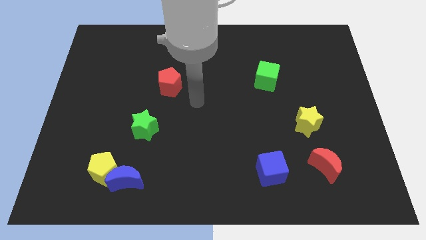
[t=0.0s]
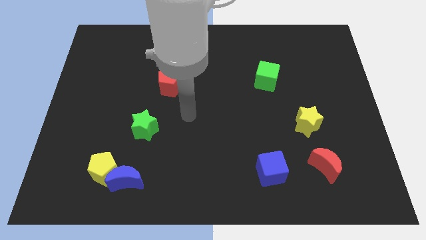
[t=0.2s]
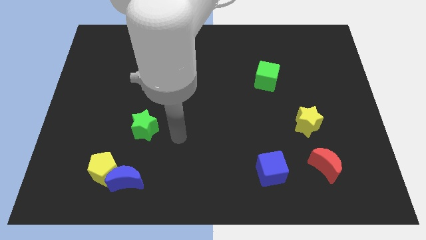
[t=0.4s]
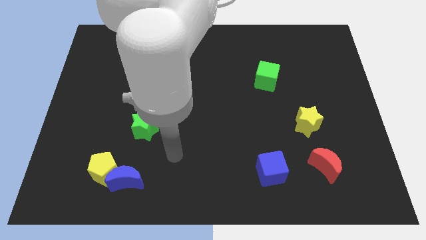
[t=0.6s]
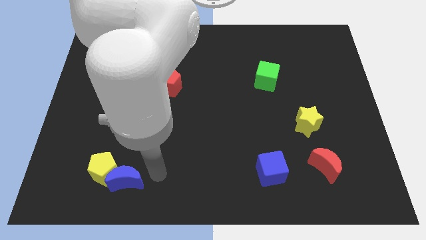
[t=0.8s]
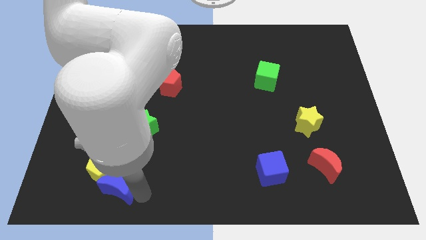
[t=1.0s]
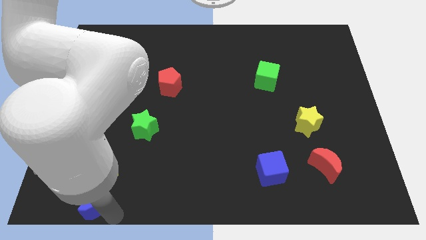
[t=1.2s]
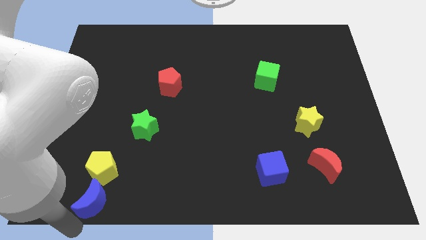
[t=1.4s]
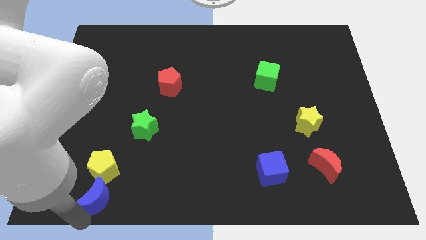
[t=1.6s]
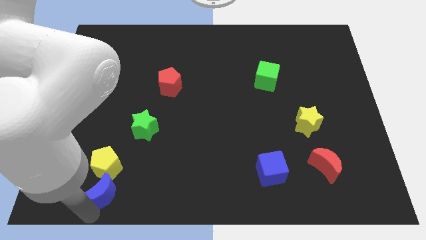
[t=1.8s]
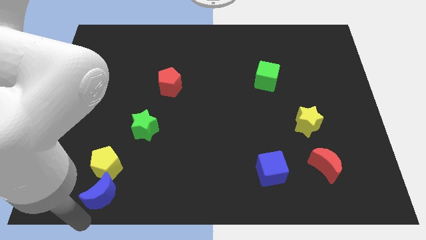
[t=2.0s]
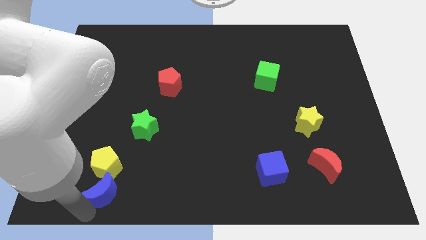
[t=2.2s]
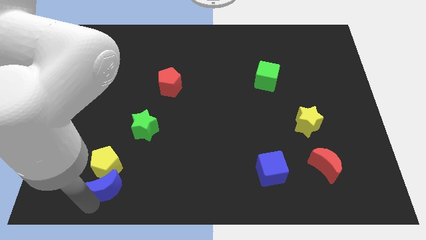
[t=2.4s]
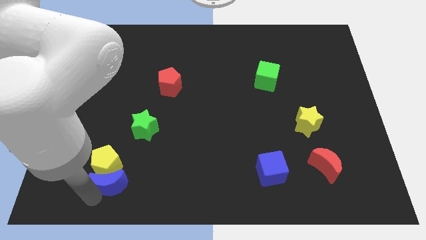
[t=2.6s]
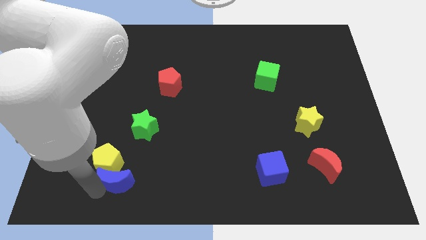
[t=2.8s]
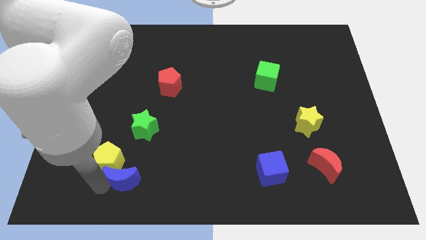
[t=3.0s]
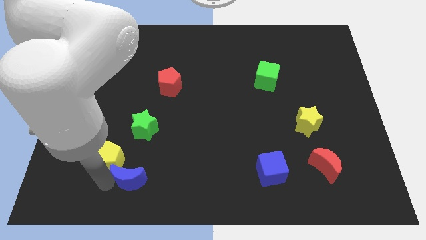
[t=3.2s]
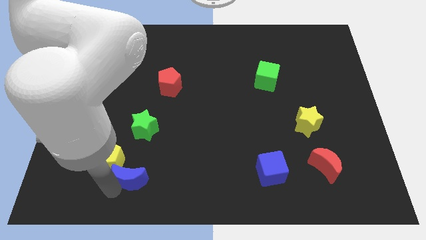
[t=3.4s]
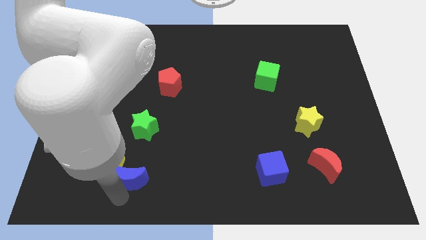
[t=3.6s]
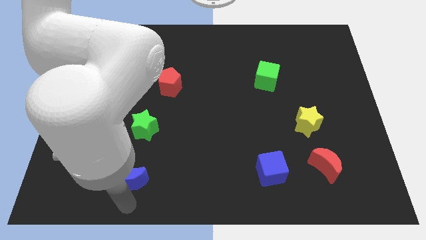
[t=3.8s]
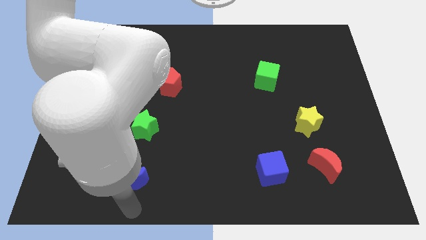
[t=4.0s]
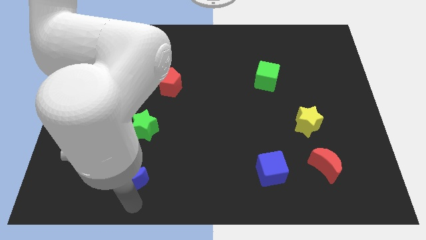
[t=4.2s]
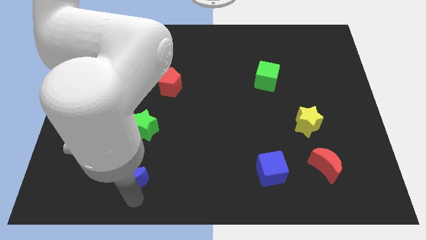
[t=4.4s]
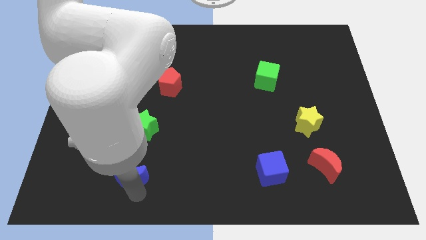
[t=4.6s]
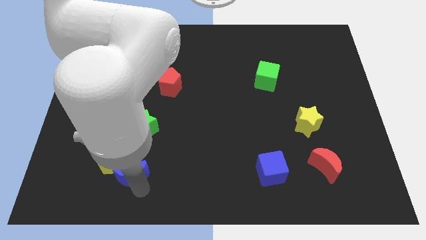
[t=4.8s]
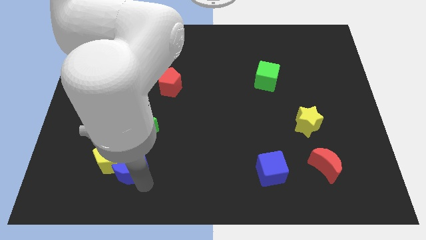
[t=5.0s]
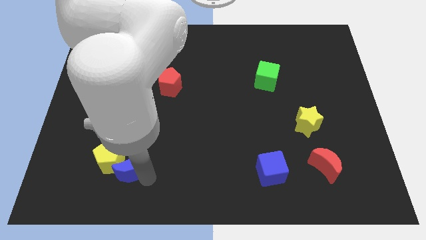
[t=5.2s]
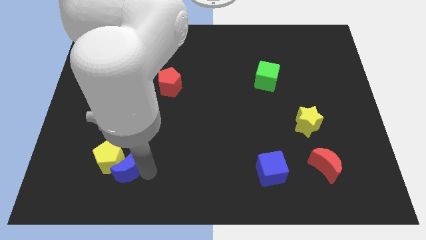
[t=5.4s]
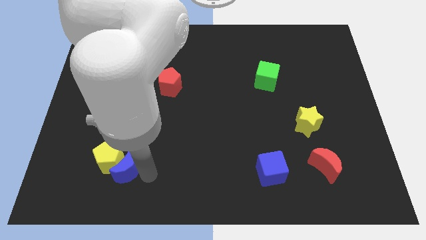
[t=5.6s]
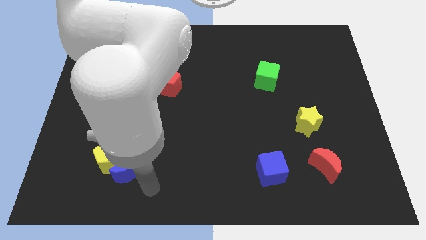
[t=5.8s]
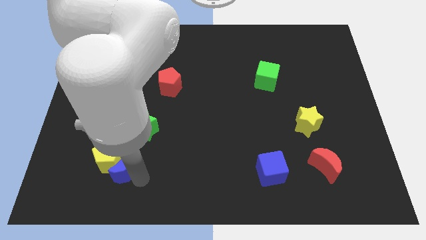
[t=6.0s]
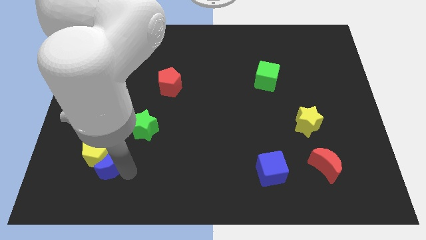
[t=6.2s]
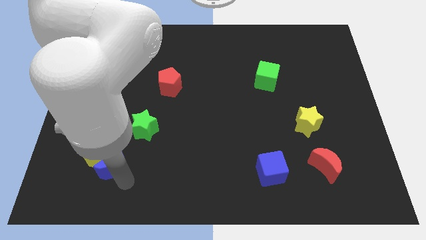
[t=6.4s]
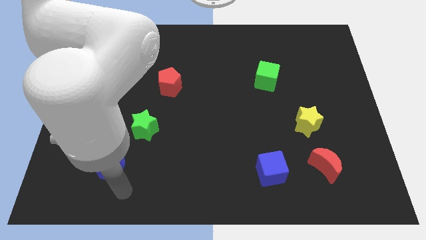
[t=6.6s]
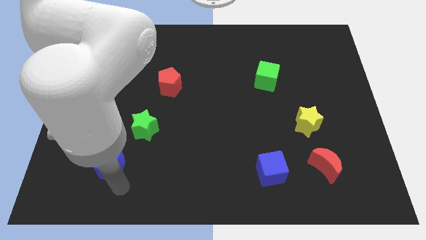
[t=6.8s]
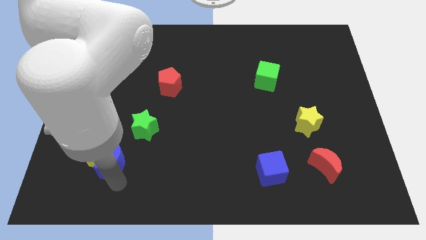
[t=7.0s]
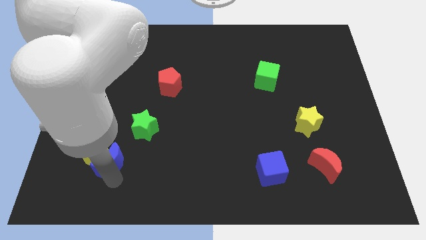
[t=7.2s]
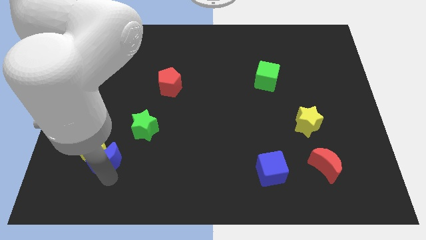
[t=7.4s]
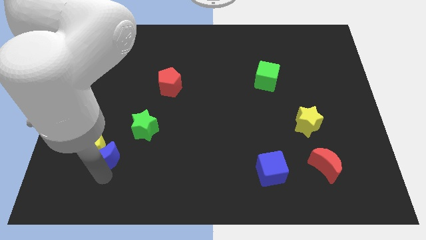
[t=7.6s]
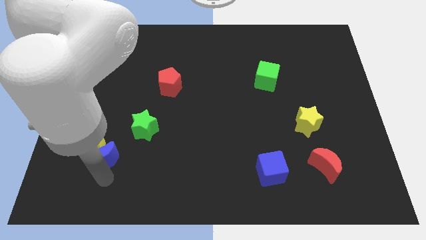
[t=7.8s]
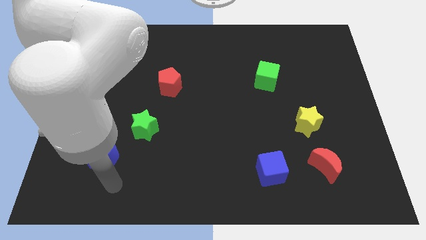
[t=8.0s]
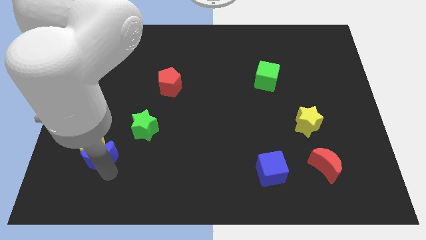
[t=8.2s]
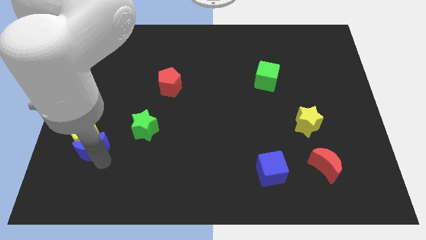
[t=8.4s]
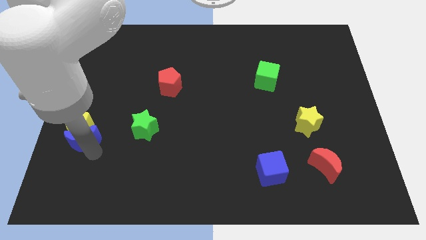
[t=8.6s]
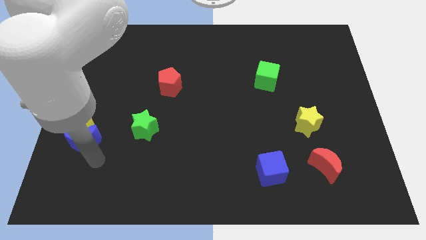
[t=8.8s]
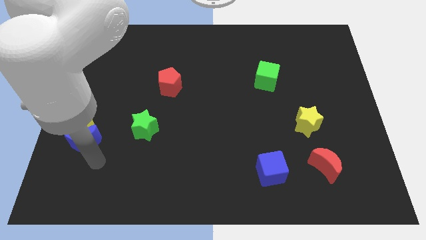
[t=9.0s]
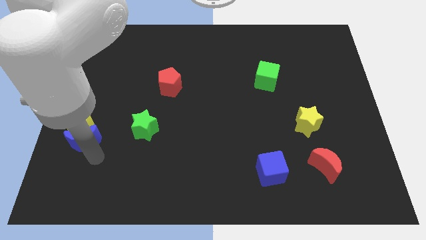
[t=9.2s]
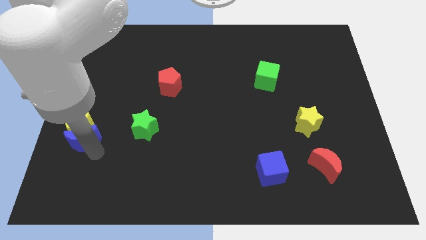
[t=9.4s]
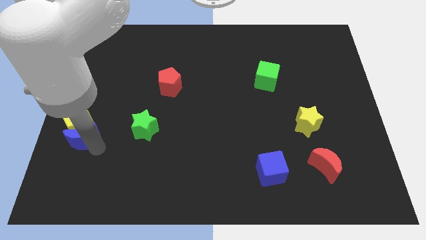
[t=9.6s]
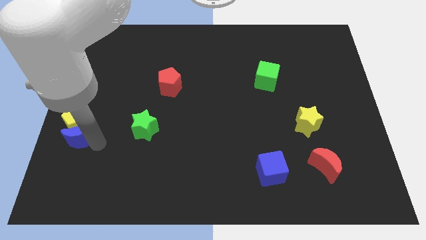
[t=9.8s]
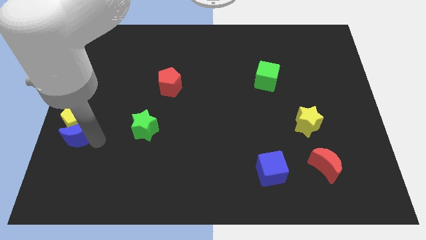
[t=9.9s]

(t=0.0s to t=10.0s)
move the blue moon to the left side of the board

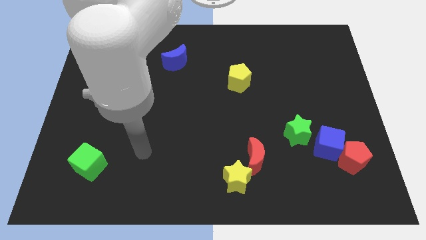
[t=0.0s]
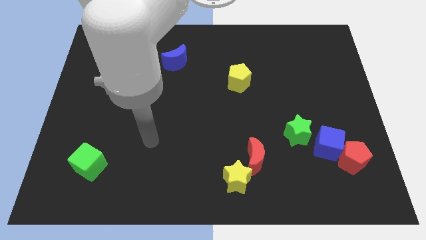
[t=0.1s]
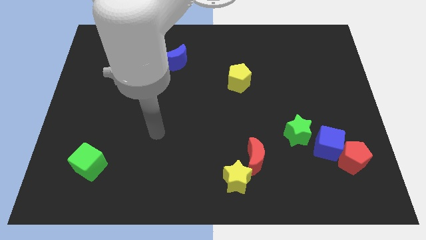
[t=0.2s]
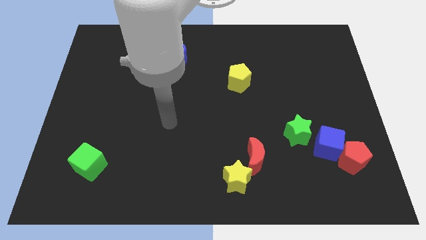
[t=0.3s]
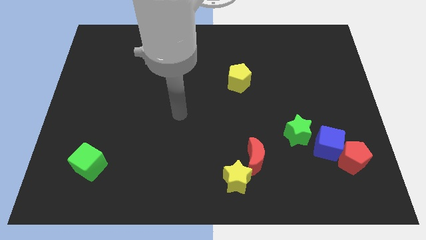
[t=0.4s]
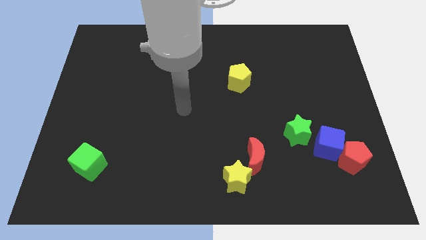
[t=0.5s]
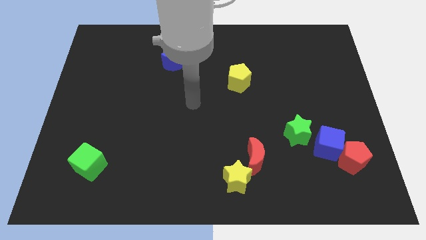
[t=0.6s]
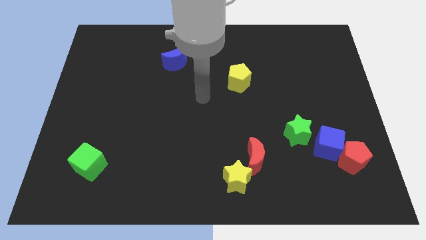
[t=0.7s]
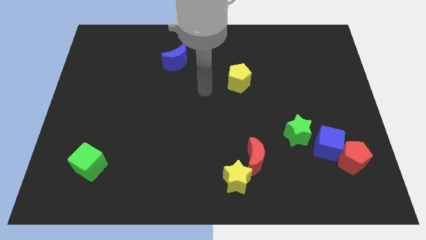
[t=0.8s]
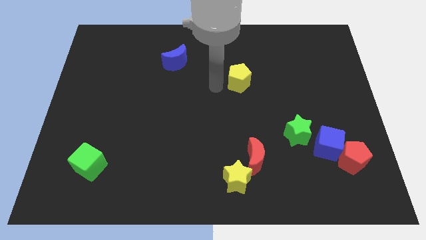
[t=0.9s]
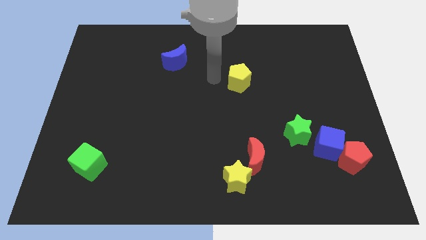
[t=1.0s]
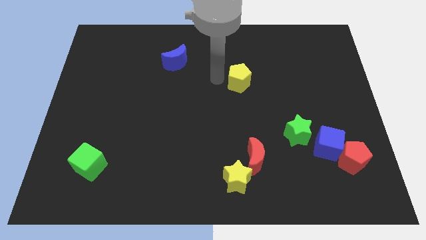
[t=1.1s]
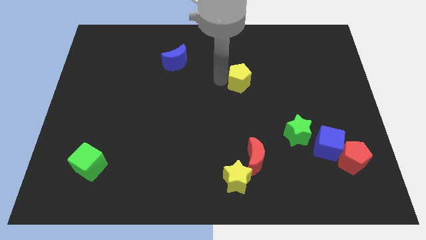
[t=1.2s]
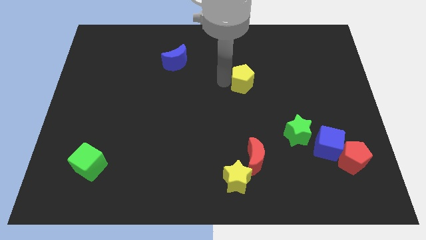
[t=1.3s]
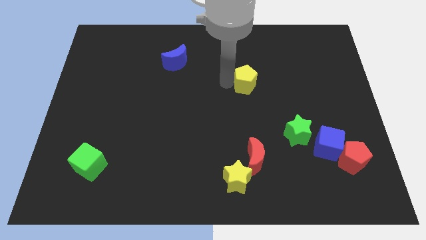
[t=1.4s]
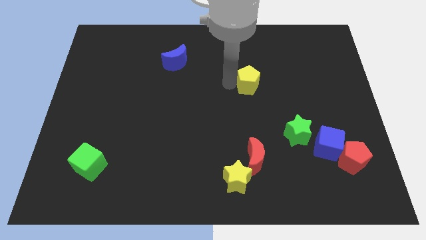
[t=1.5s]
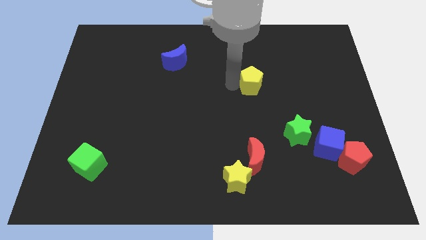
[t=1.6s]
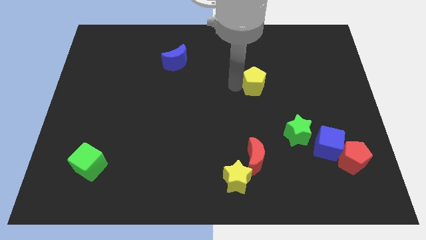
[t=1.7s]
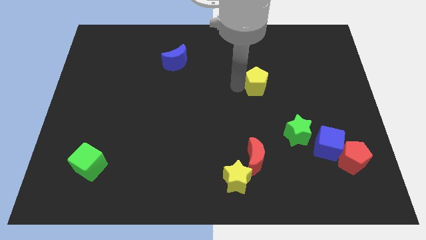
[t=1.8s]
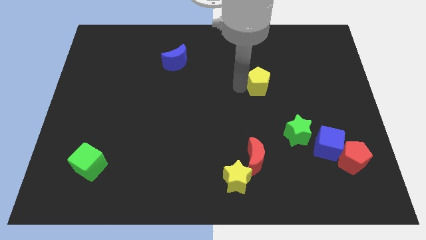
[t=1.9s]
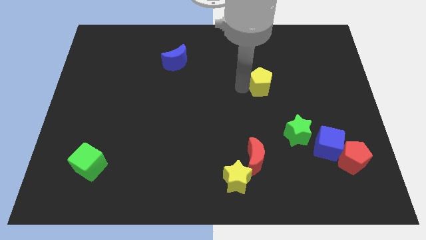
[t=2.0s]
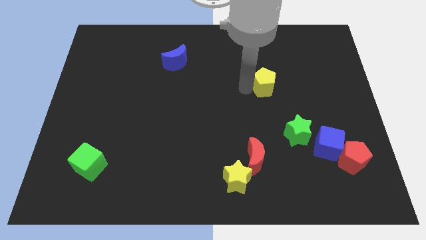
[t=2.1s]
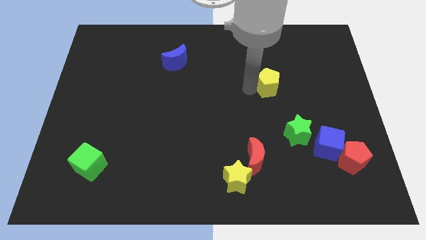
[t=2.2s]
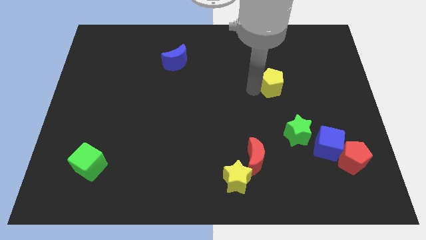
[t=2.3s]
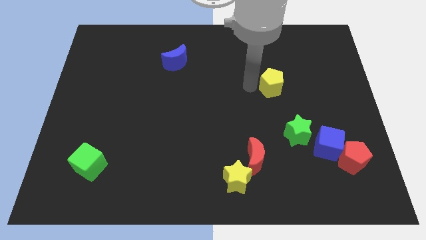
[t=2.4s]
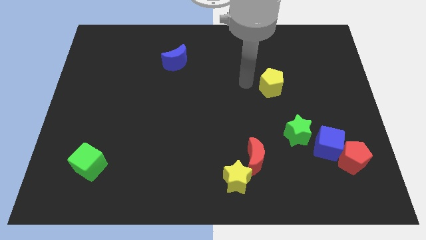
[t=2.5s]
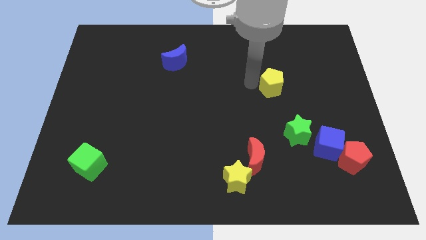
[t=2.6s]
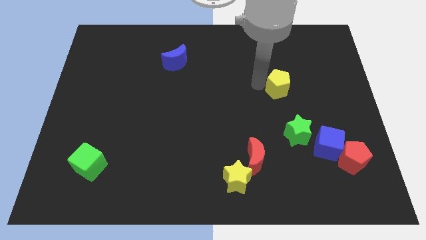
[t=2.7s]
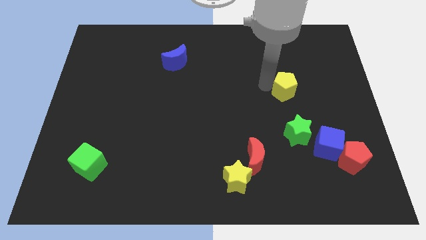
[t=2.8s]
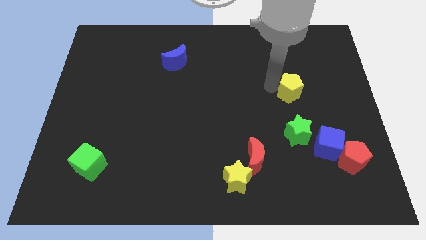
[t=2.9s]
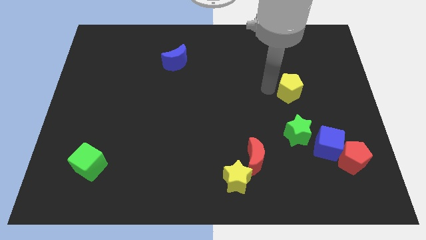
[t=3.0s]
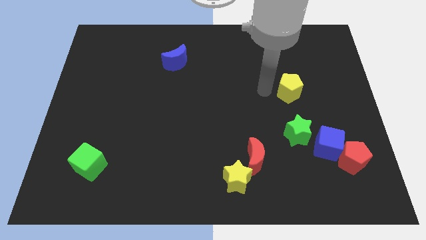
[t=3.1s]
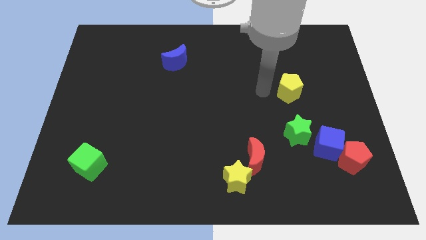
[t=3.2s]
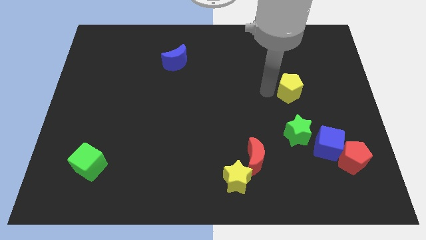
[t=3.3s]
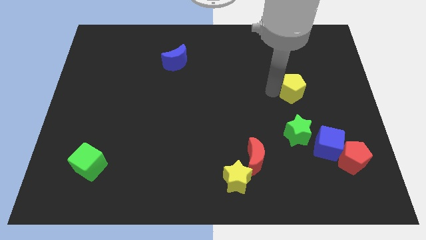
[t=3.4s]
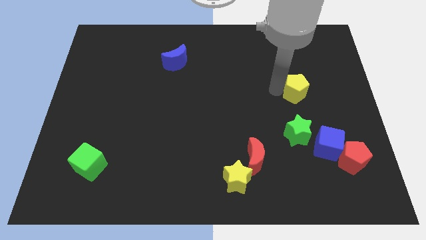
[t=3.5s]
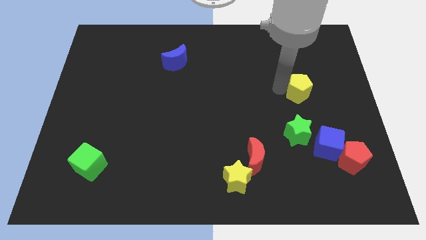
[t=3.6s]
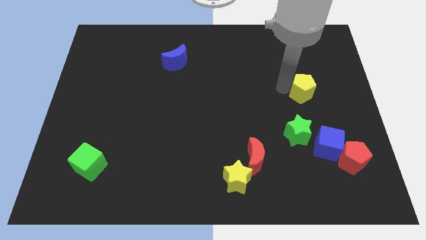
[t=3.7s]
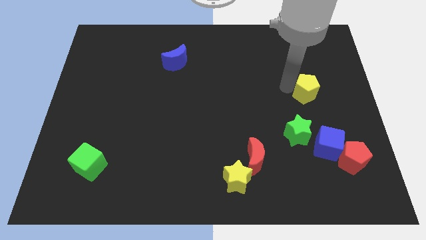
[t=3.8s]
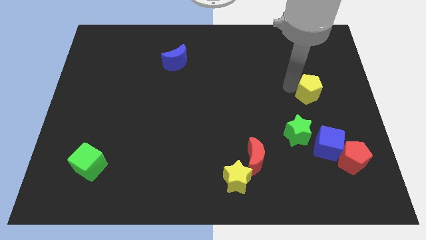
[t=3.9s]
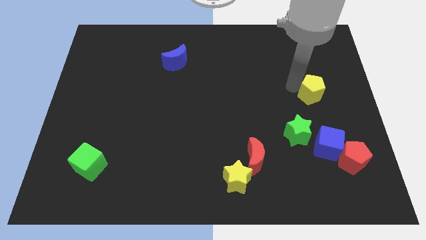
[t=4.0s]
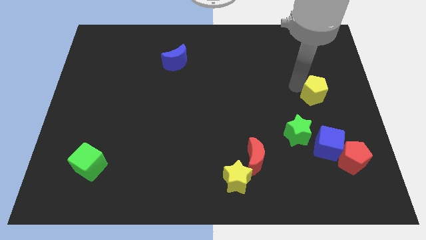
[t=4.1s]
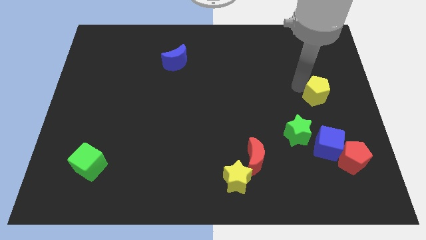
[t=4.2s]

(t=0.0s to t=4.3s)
slide the yellow pentagon to the center right
